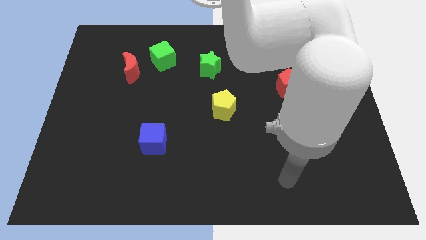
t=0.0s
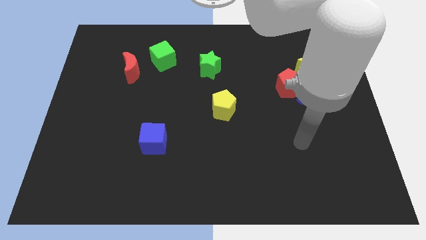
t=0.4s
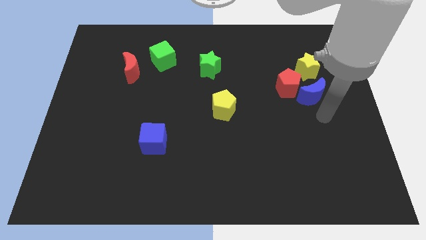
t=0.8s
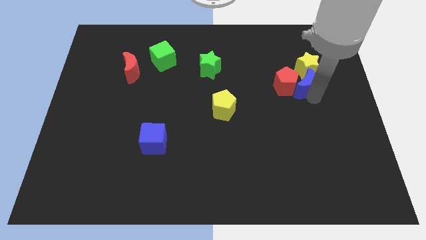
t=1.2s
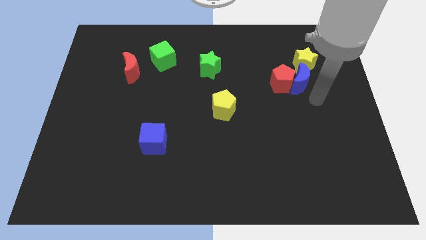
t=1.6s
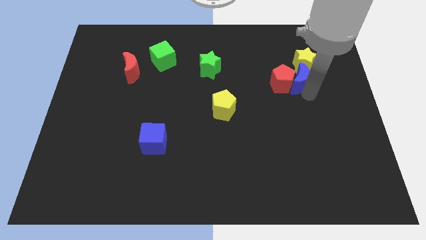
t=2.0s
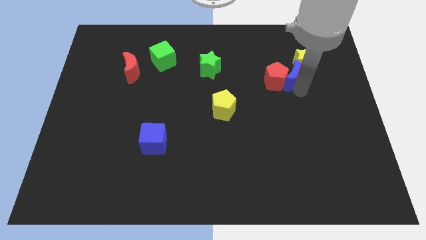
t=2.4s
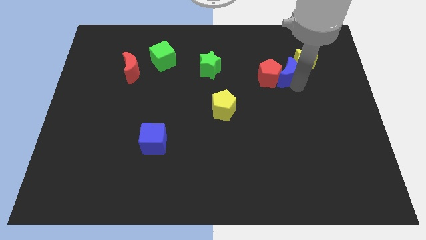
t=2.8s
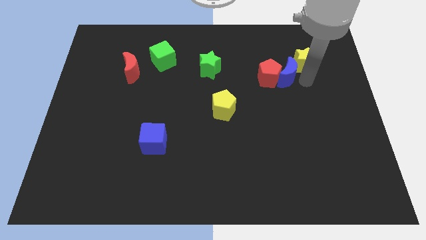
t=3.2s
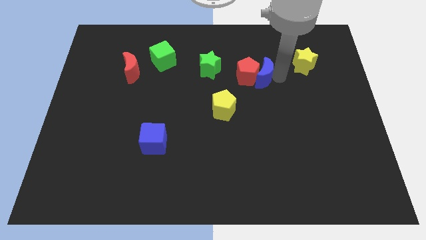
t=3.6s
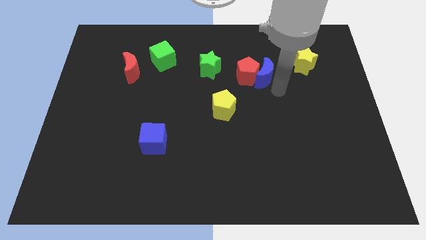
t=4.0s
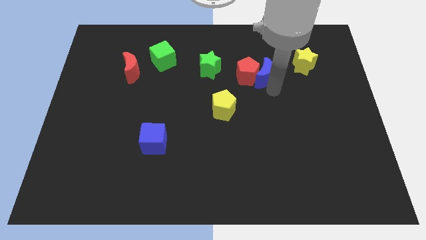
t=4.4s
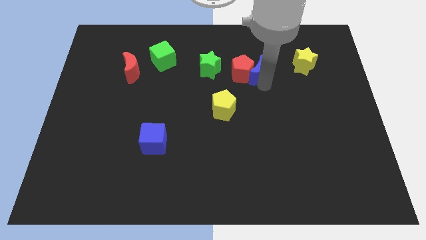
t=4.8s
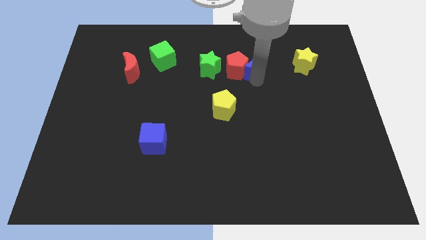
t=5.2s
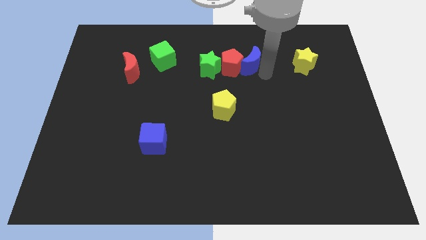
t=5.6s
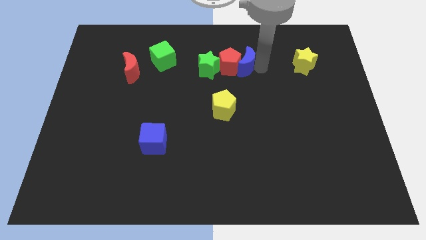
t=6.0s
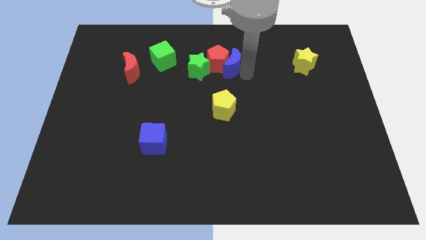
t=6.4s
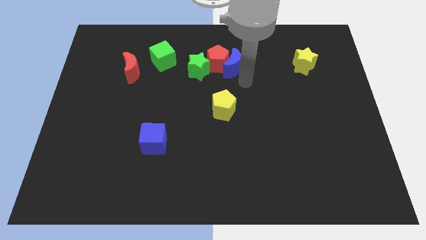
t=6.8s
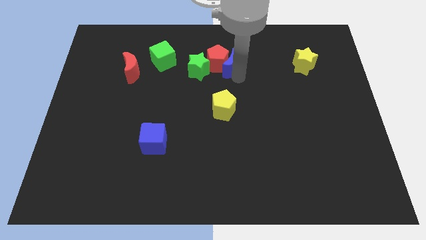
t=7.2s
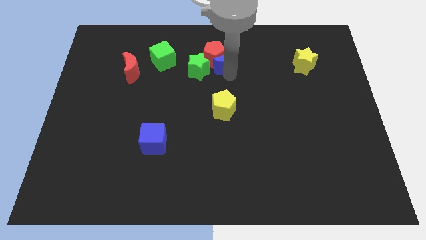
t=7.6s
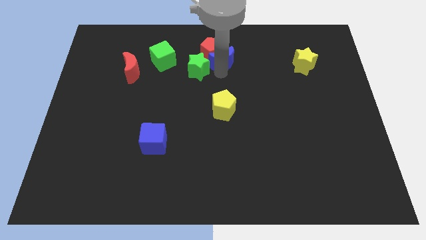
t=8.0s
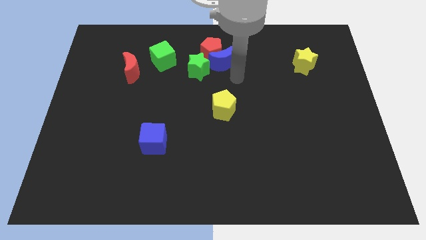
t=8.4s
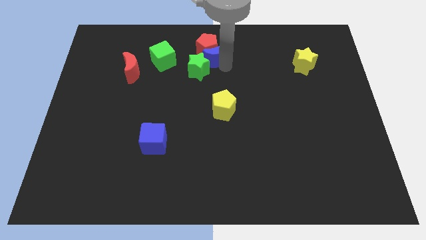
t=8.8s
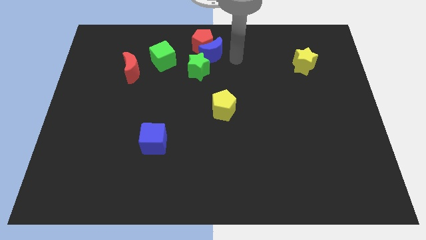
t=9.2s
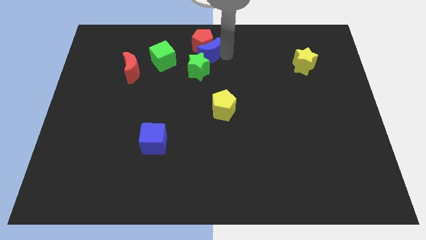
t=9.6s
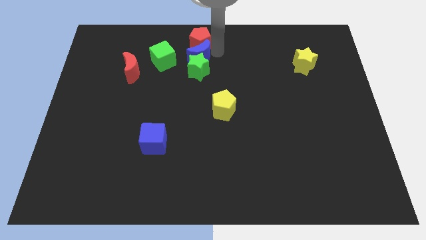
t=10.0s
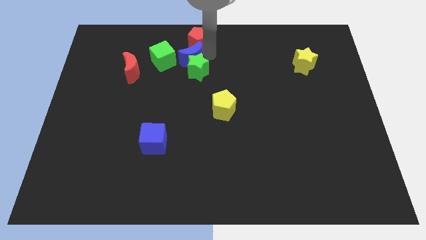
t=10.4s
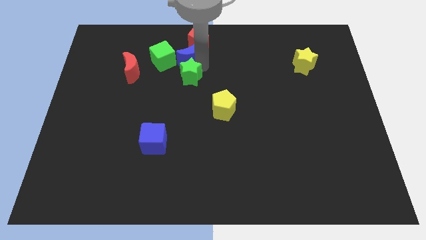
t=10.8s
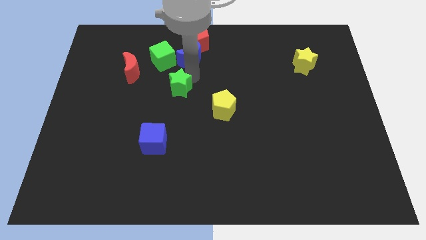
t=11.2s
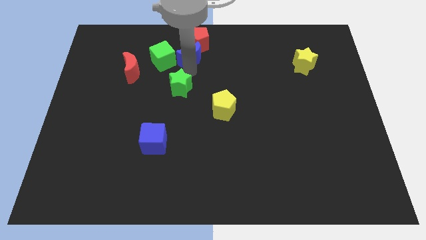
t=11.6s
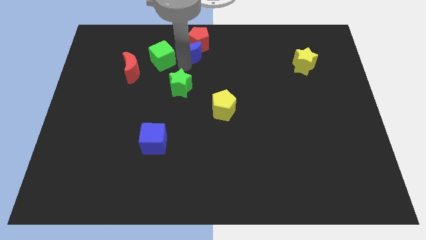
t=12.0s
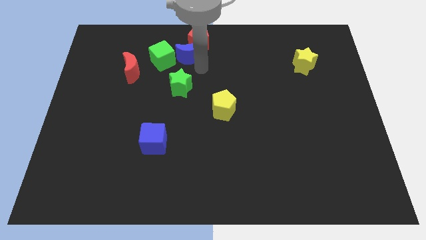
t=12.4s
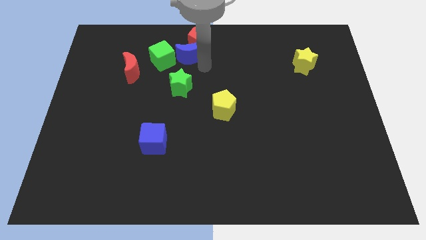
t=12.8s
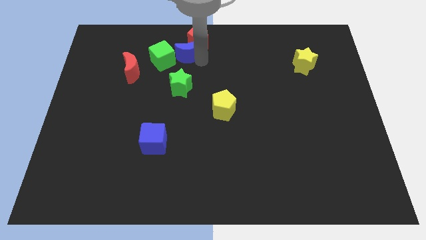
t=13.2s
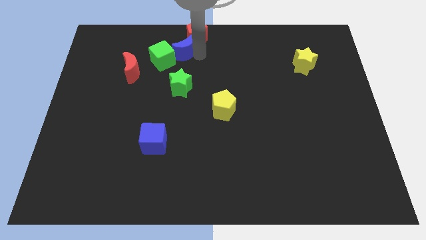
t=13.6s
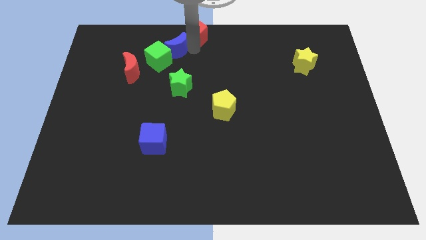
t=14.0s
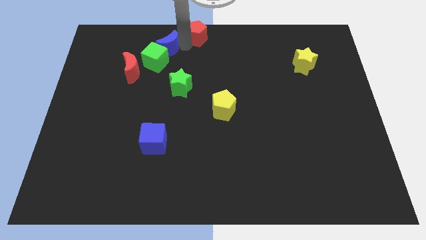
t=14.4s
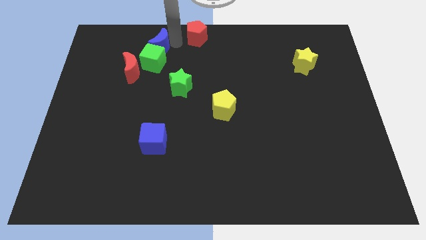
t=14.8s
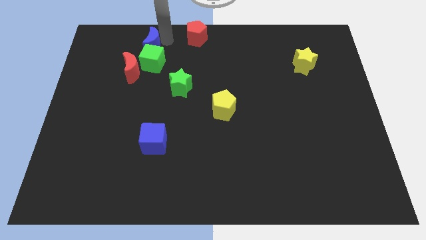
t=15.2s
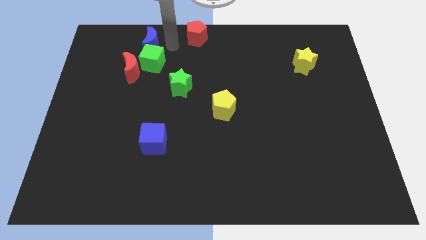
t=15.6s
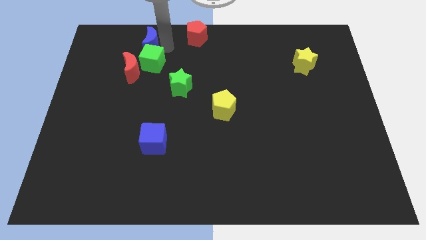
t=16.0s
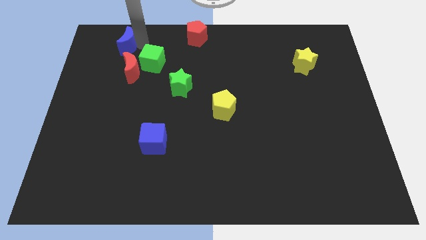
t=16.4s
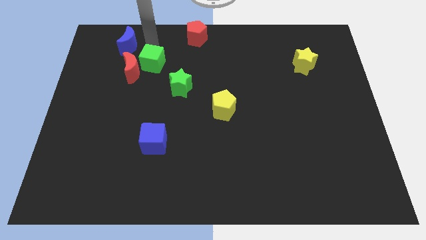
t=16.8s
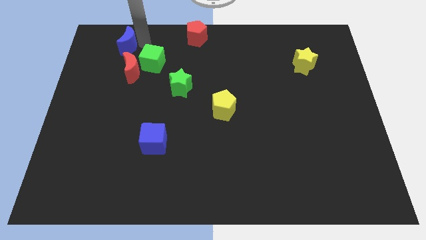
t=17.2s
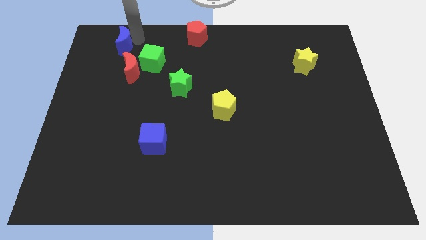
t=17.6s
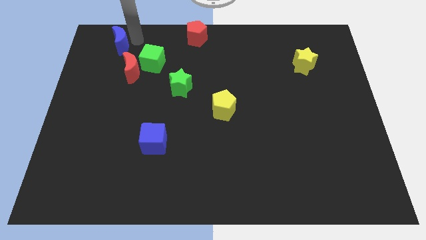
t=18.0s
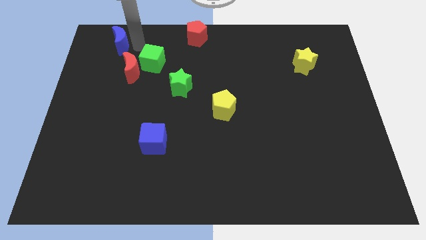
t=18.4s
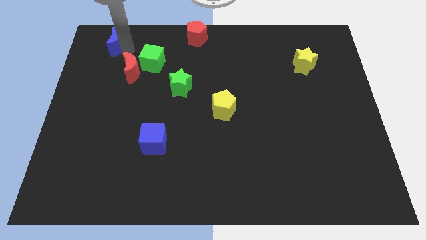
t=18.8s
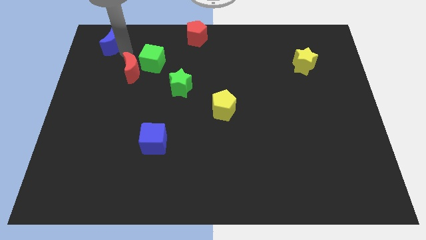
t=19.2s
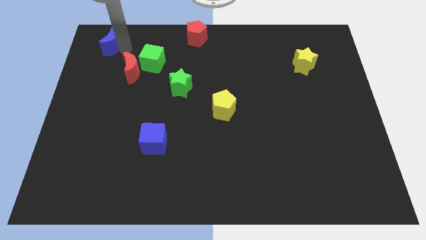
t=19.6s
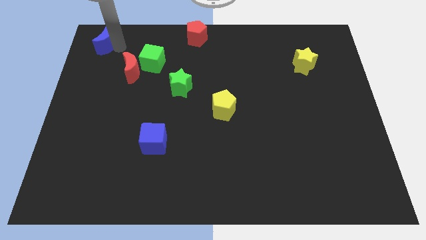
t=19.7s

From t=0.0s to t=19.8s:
push the blue moon to the top left

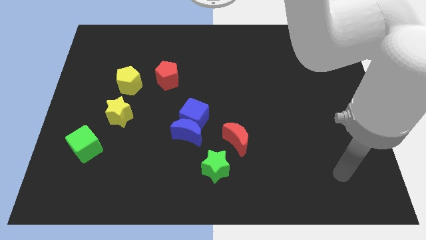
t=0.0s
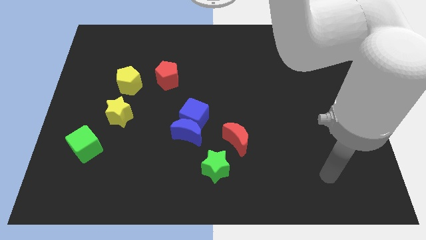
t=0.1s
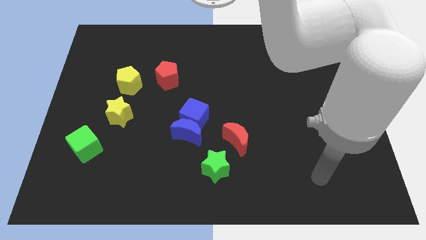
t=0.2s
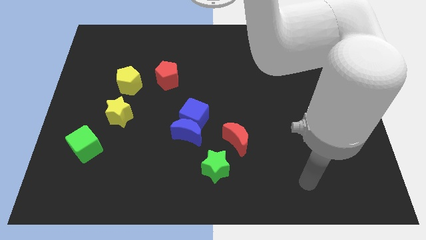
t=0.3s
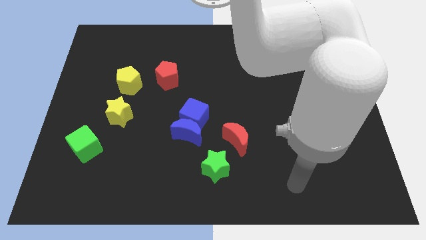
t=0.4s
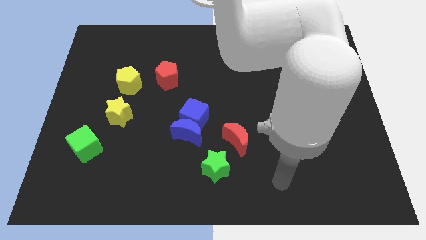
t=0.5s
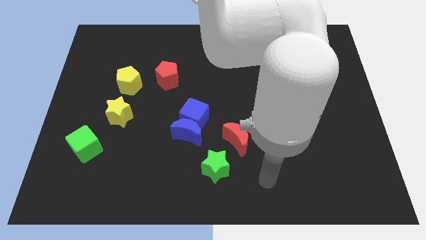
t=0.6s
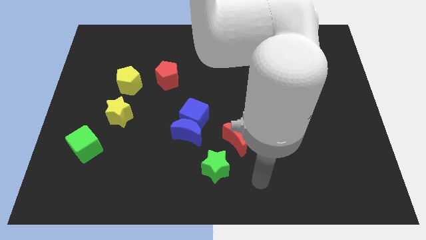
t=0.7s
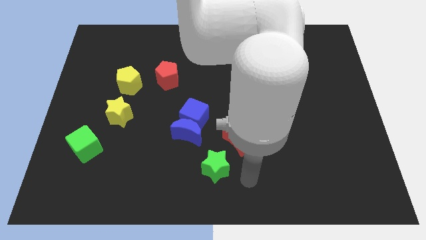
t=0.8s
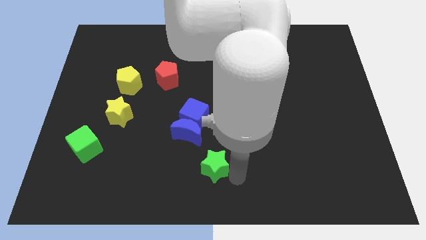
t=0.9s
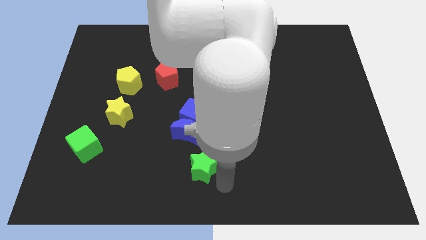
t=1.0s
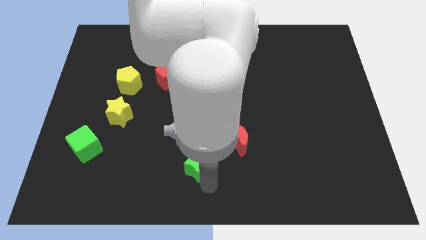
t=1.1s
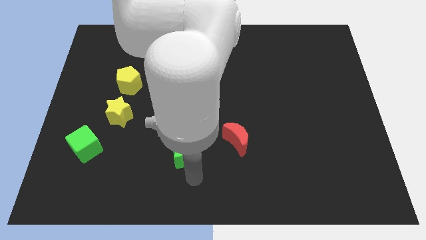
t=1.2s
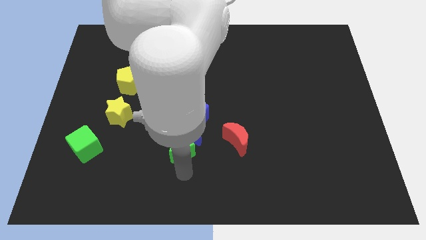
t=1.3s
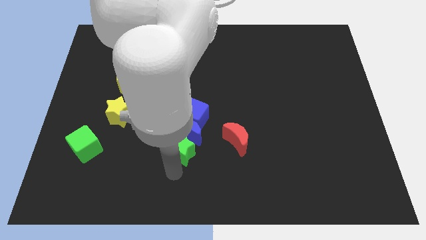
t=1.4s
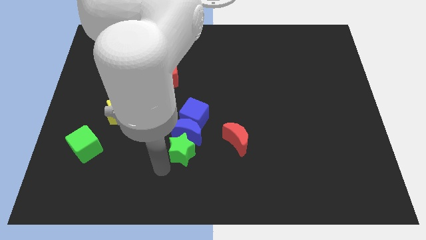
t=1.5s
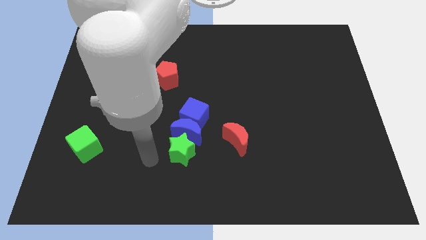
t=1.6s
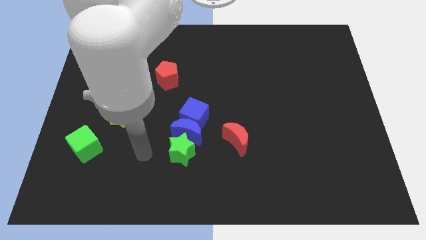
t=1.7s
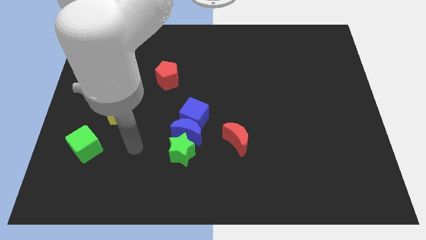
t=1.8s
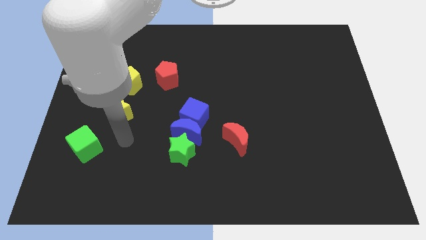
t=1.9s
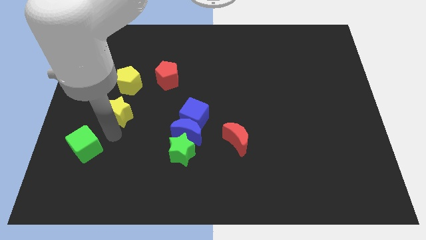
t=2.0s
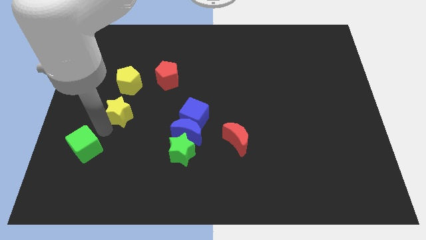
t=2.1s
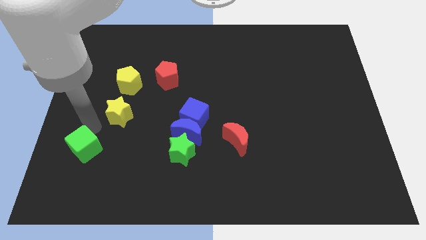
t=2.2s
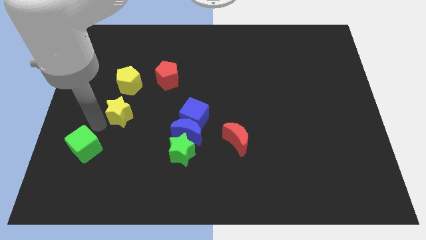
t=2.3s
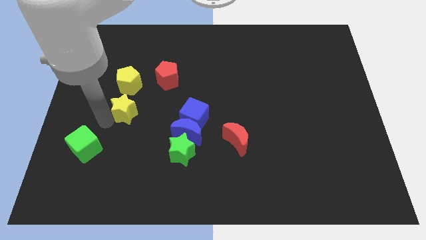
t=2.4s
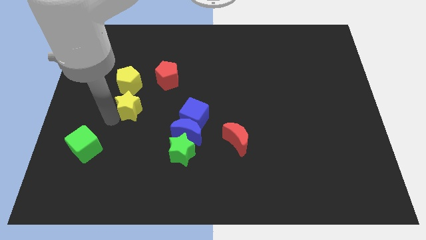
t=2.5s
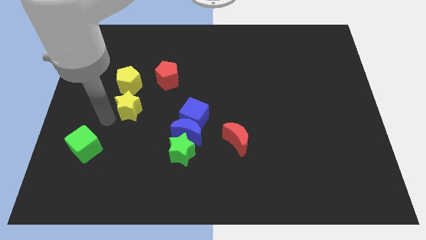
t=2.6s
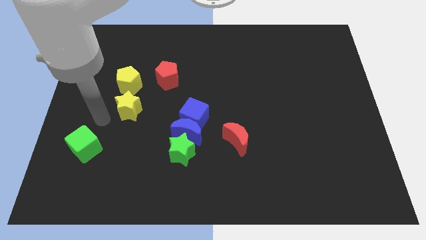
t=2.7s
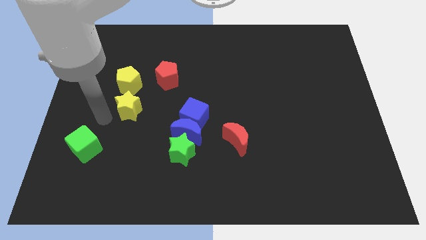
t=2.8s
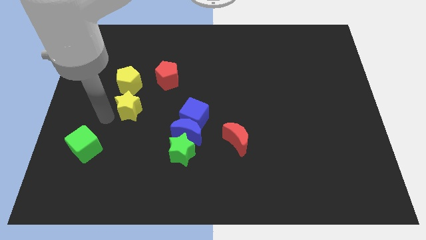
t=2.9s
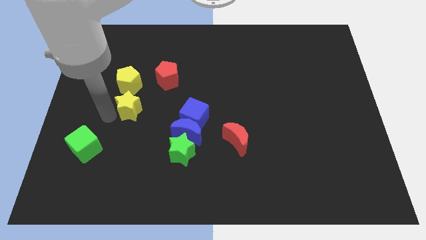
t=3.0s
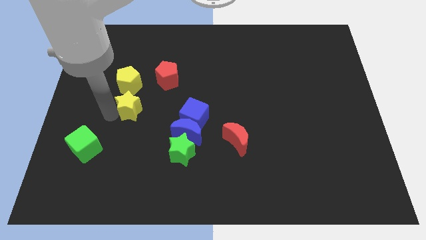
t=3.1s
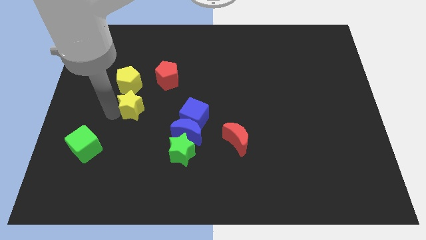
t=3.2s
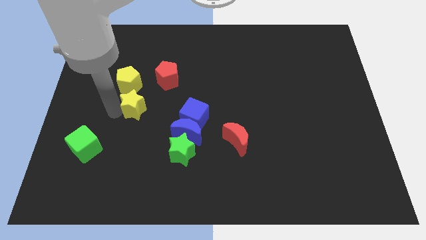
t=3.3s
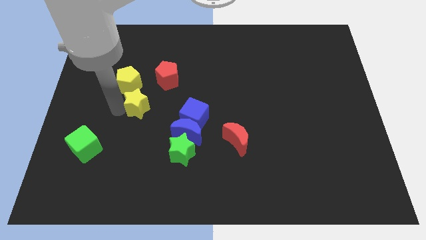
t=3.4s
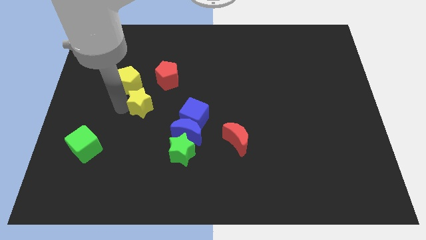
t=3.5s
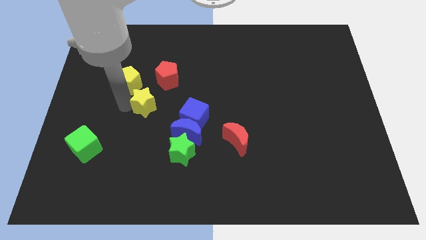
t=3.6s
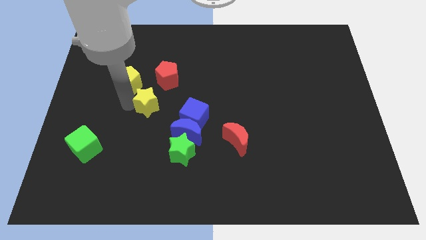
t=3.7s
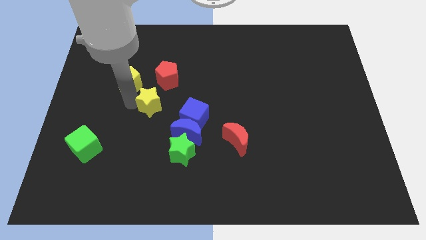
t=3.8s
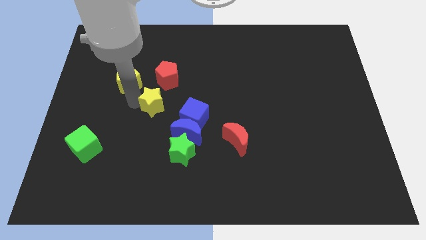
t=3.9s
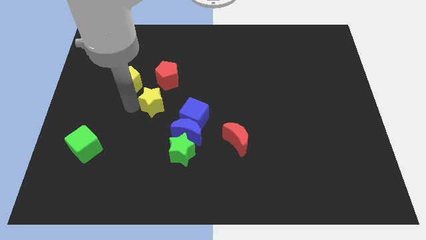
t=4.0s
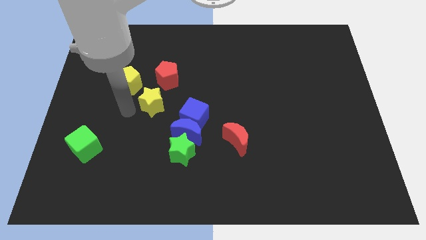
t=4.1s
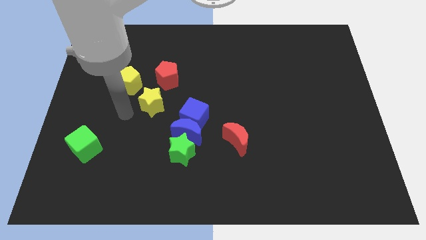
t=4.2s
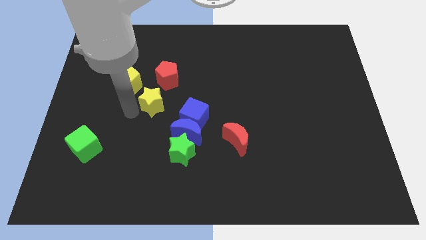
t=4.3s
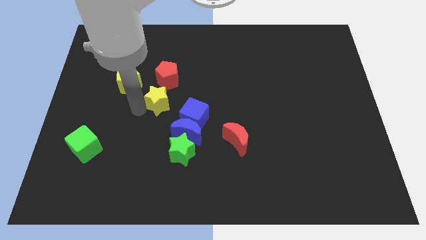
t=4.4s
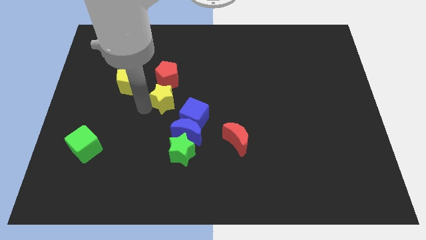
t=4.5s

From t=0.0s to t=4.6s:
put the yellow star to the middle
